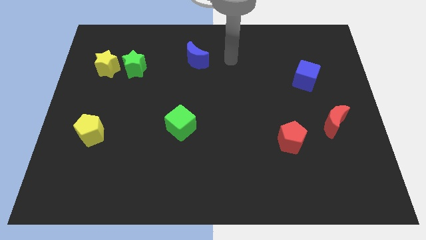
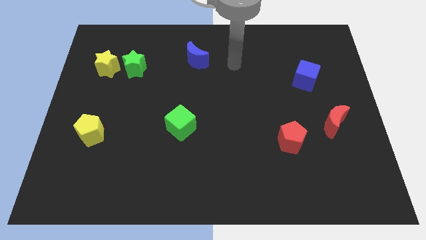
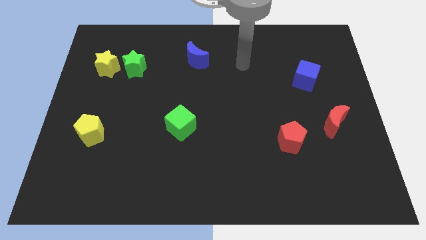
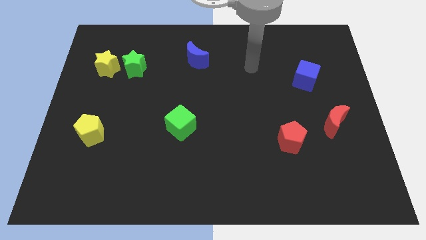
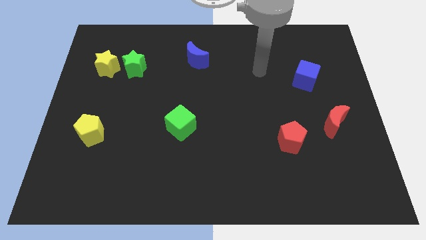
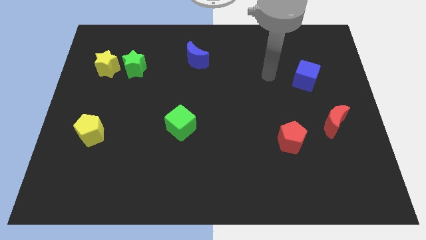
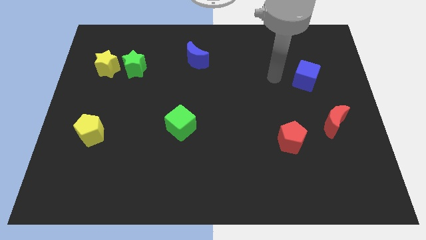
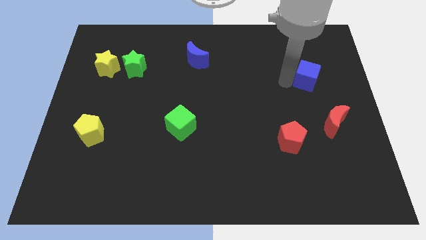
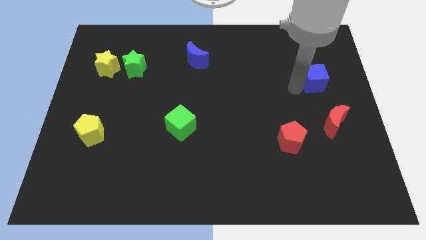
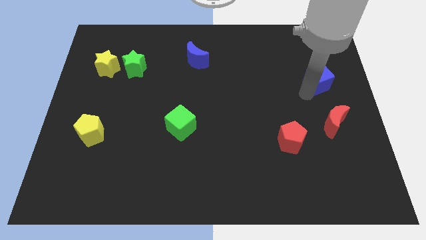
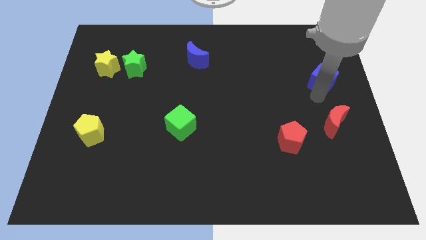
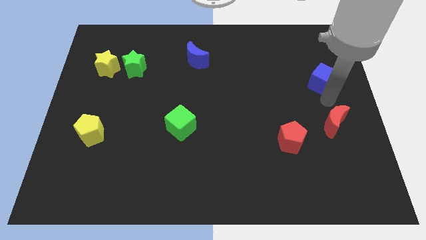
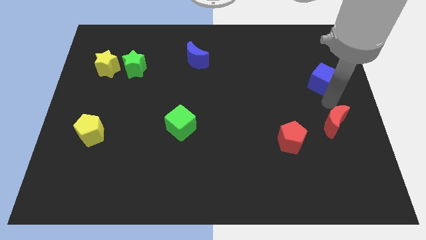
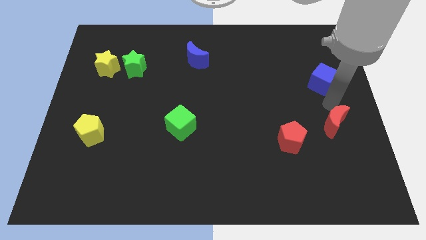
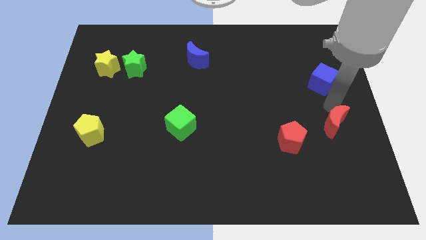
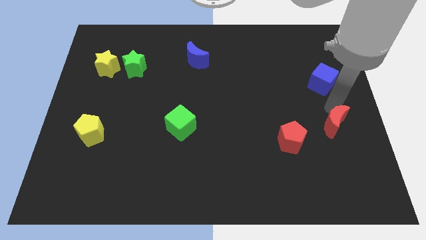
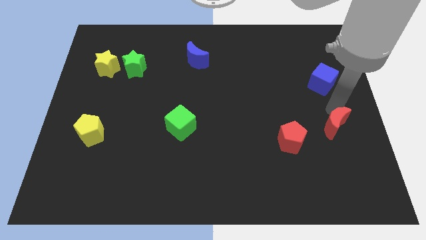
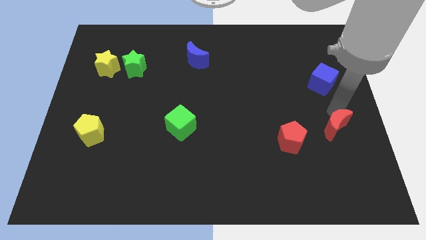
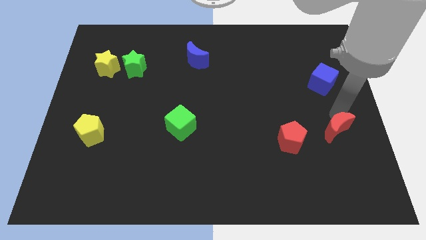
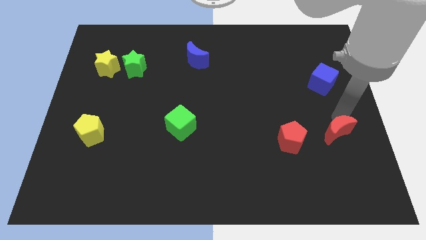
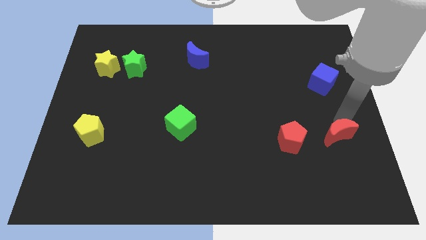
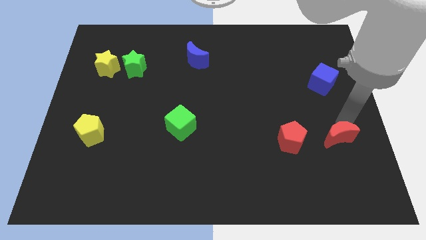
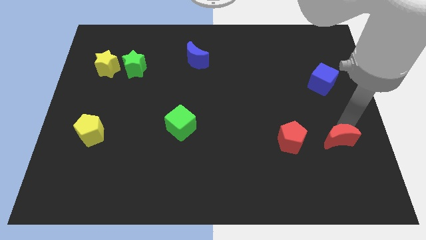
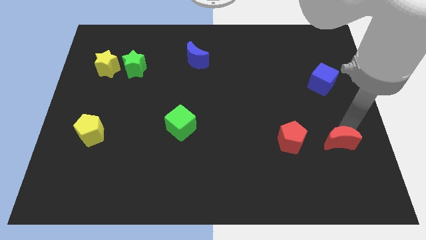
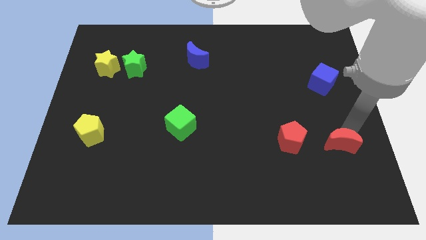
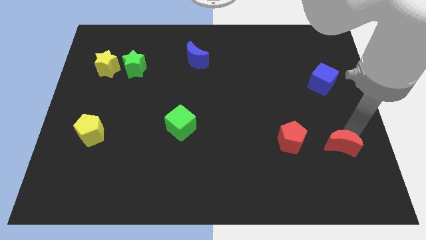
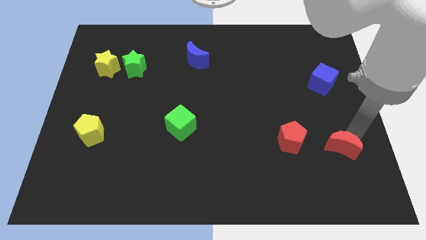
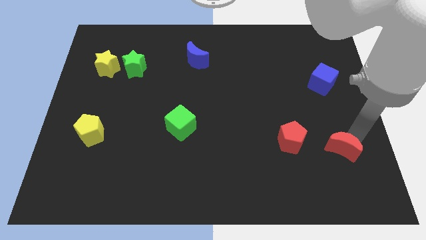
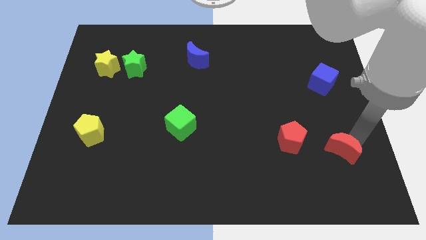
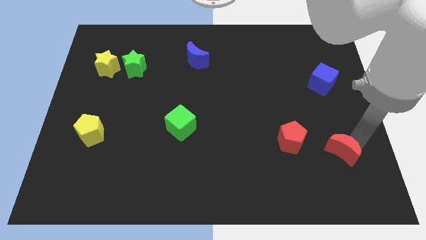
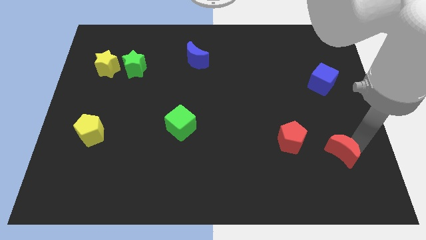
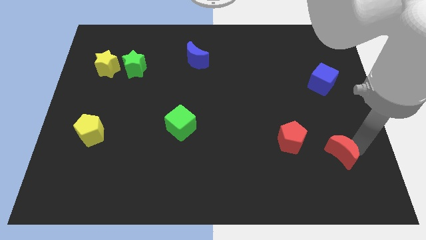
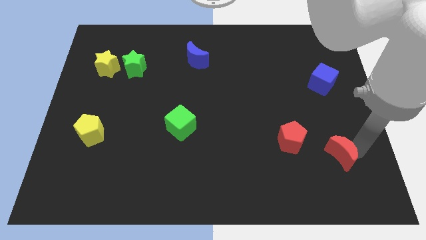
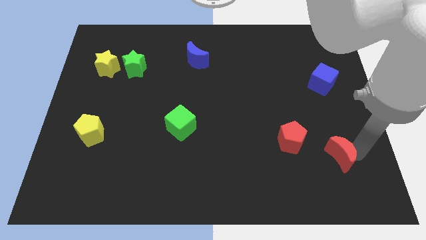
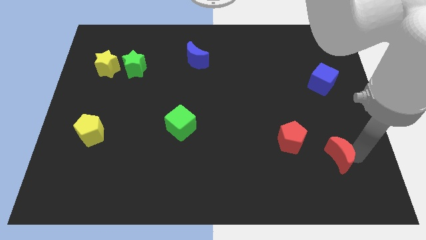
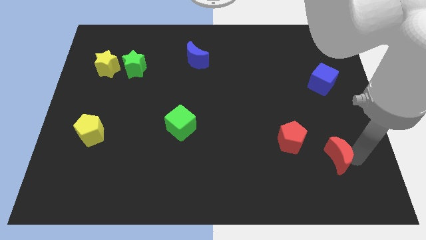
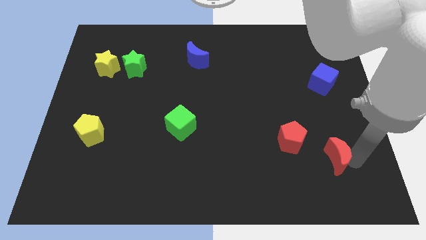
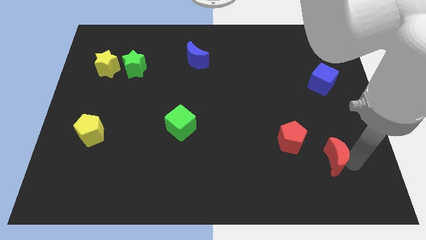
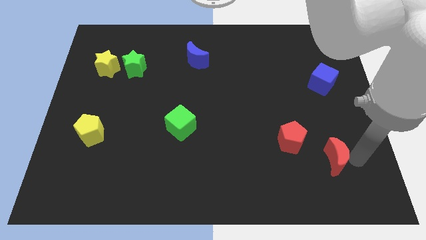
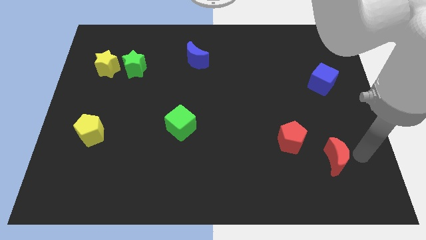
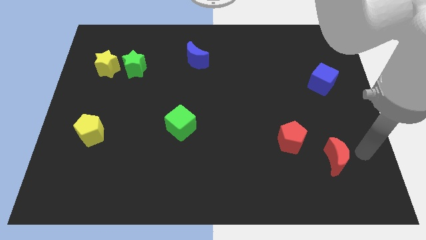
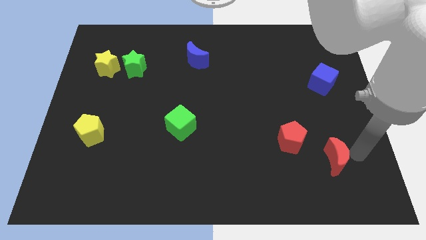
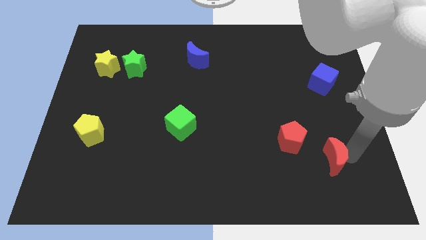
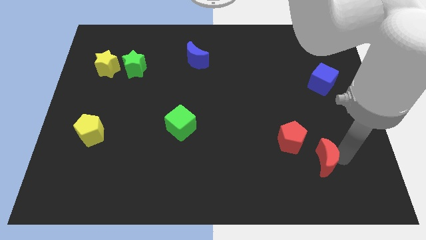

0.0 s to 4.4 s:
move the red moon a little bit down and then to the left

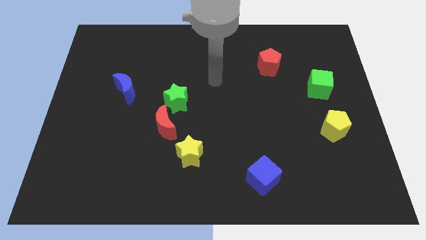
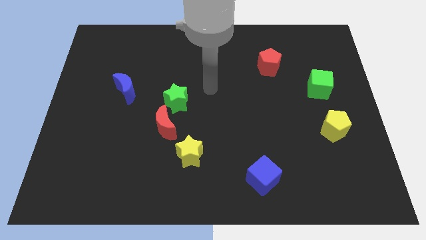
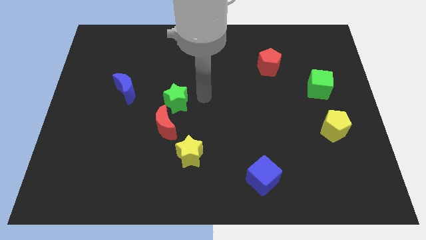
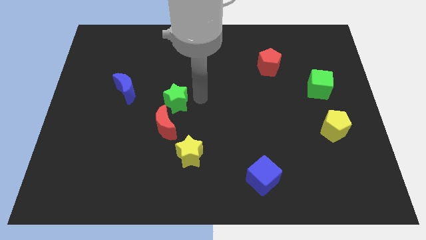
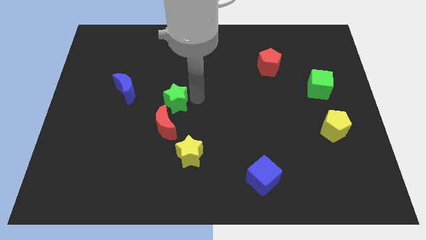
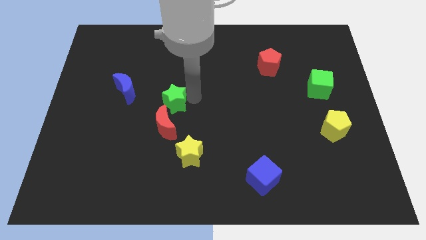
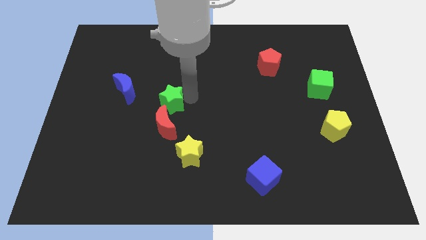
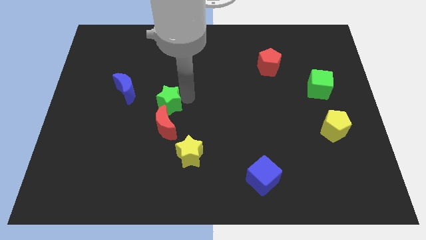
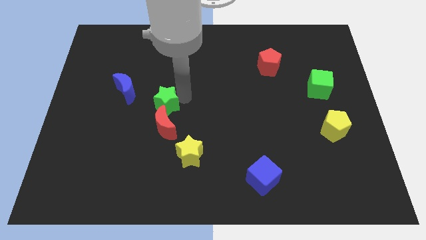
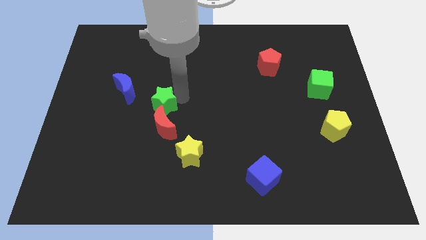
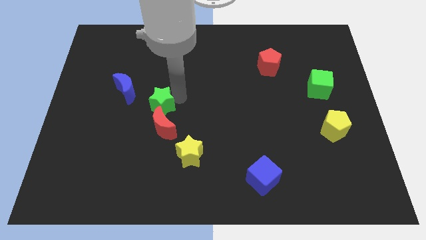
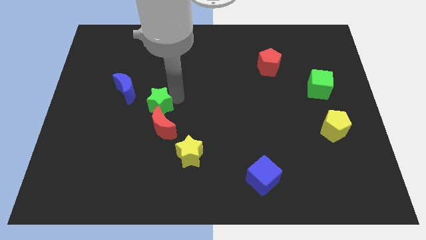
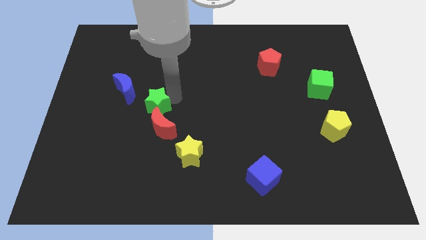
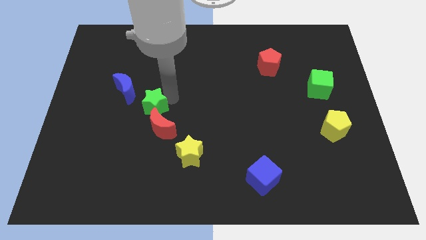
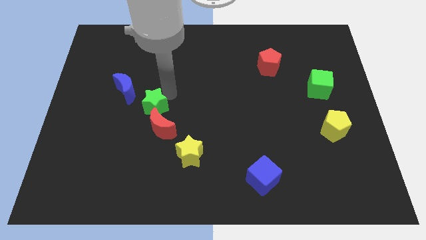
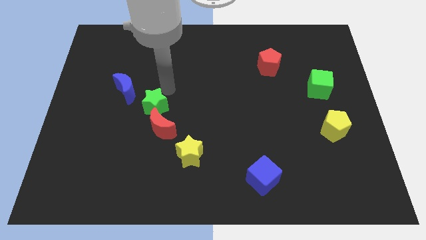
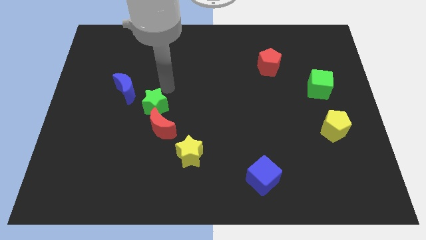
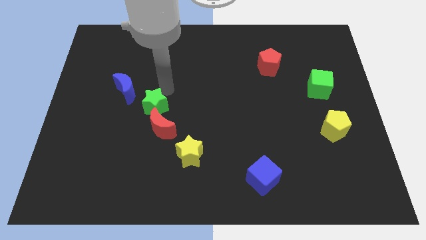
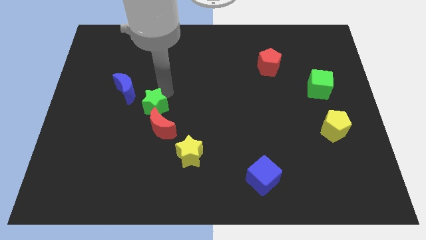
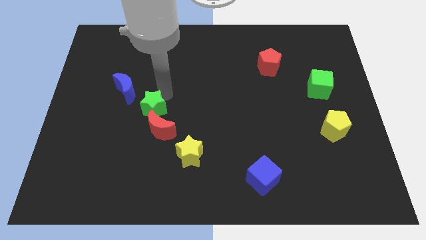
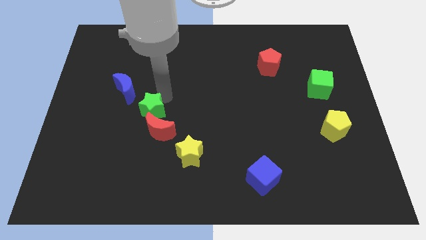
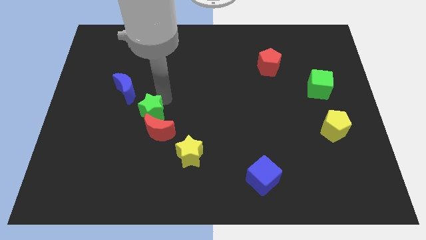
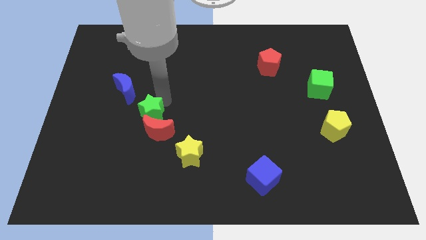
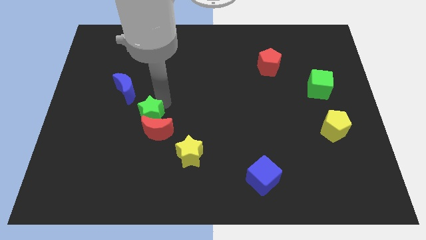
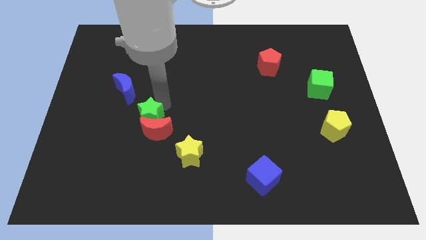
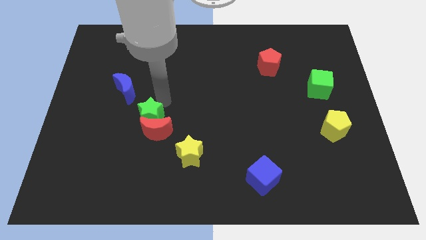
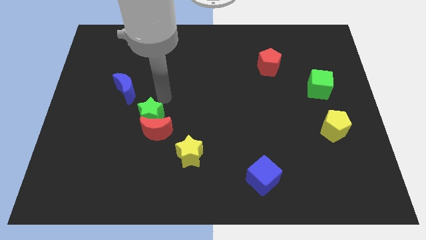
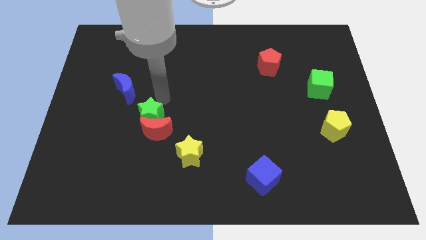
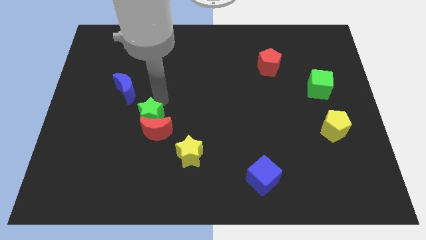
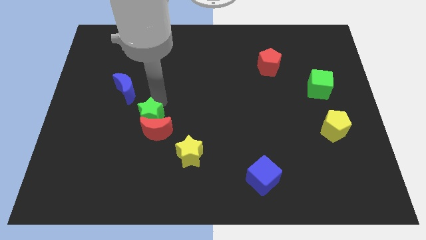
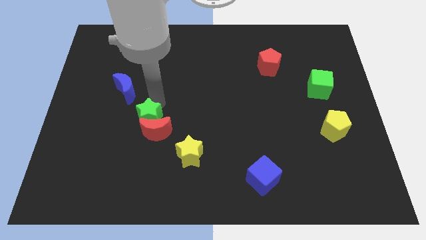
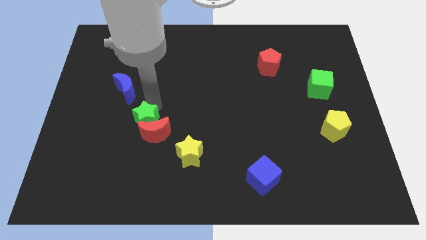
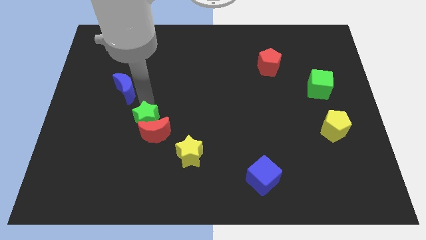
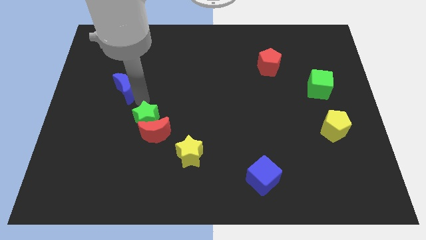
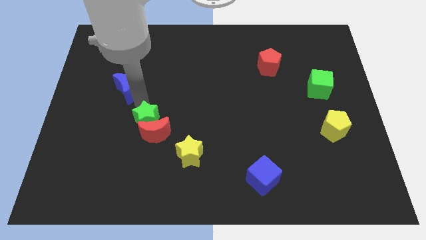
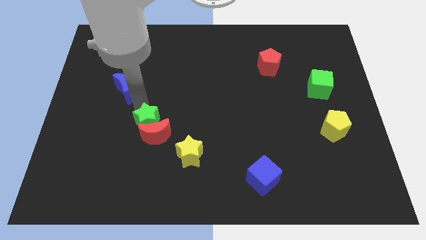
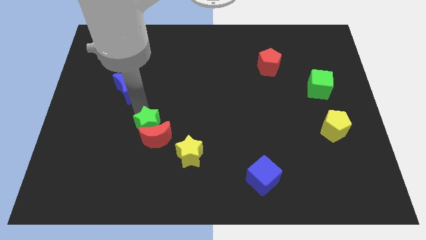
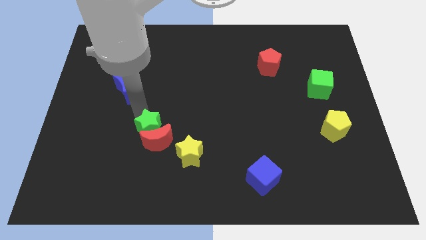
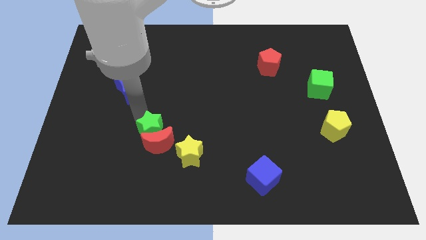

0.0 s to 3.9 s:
slide the green star downwards a little bit
